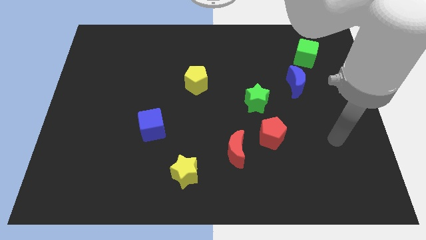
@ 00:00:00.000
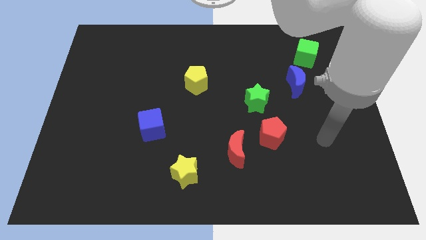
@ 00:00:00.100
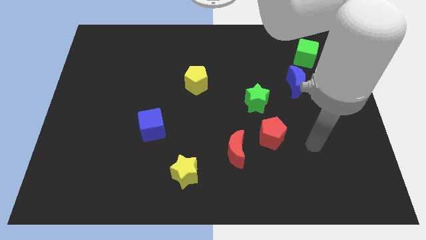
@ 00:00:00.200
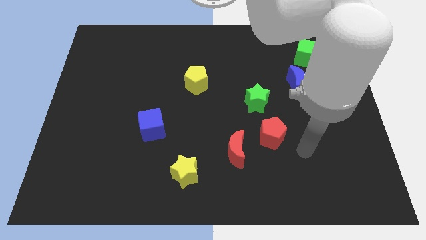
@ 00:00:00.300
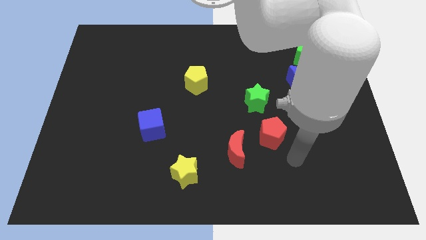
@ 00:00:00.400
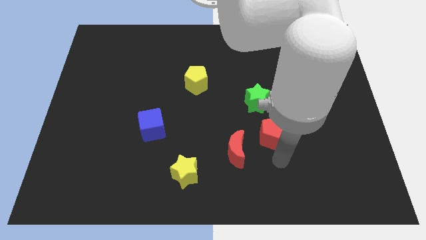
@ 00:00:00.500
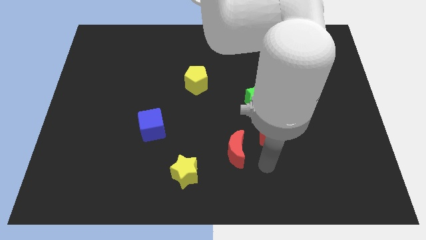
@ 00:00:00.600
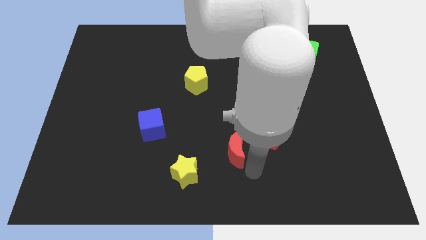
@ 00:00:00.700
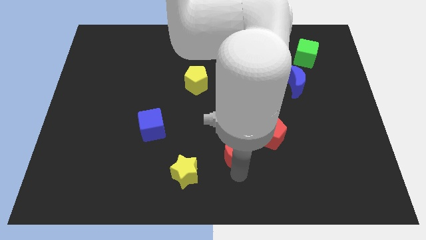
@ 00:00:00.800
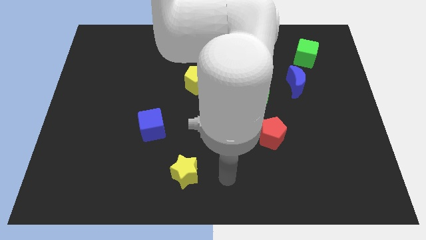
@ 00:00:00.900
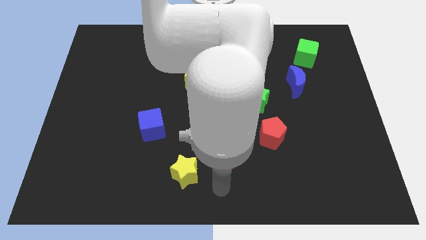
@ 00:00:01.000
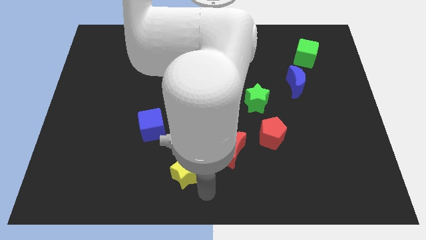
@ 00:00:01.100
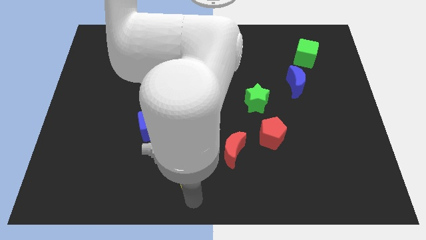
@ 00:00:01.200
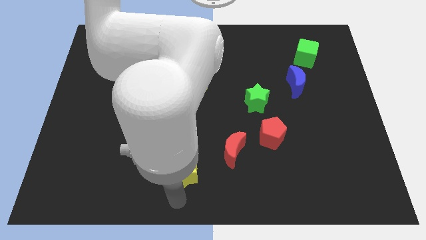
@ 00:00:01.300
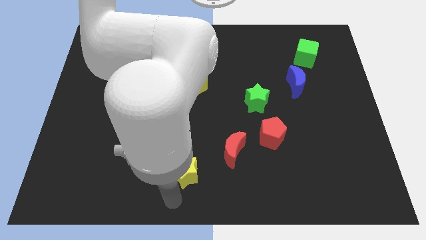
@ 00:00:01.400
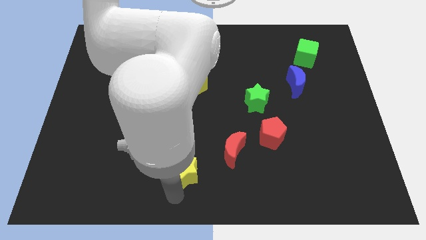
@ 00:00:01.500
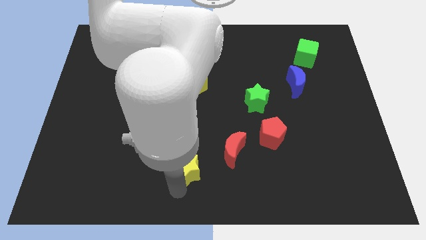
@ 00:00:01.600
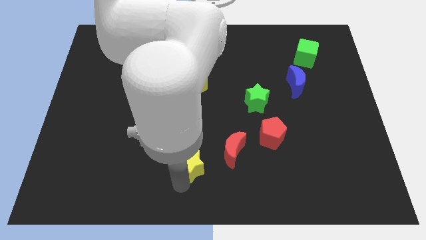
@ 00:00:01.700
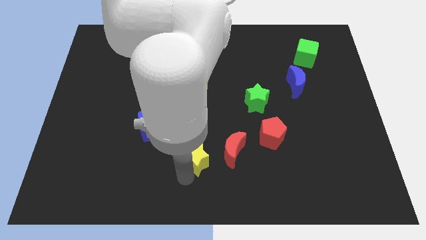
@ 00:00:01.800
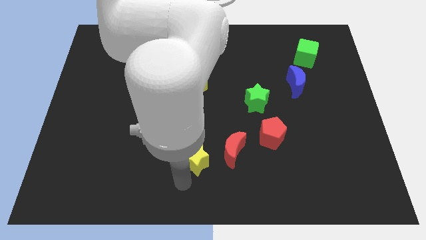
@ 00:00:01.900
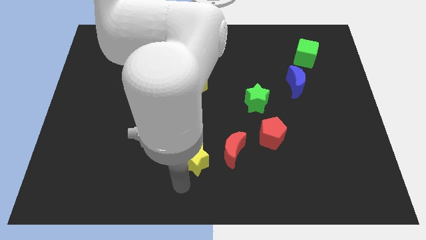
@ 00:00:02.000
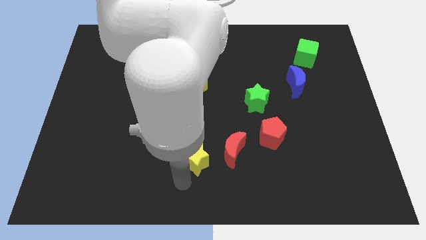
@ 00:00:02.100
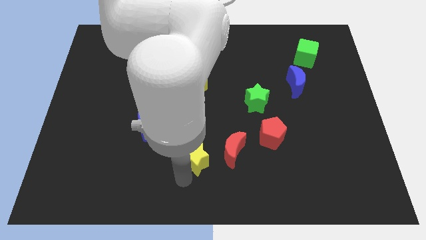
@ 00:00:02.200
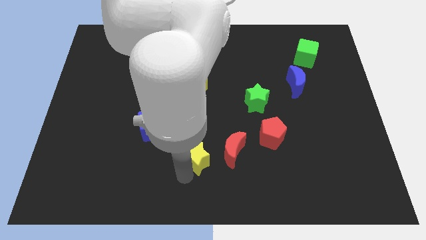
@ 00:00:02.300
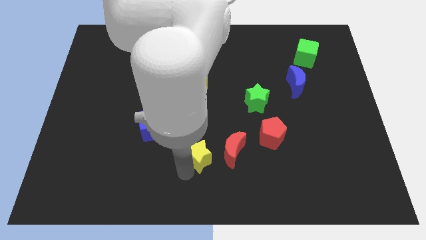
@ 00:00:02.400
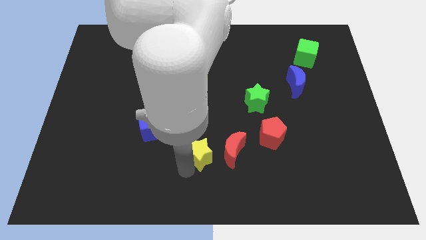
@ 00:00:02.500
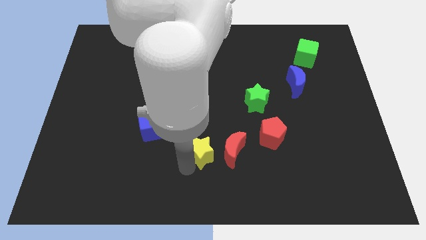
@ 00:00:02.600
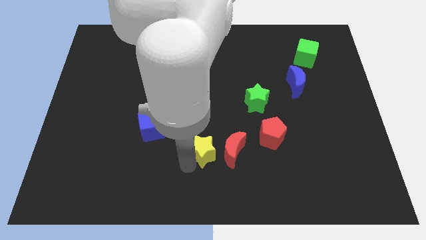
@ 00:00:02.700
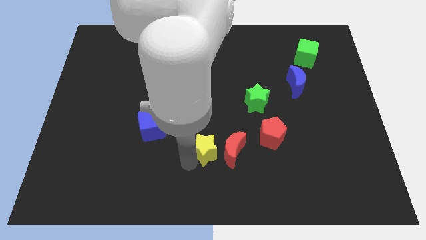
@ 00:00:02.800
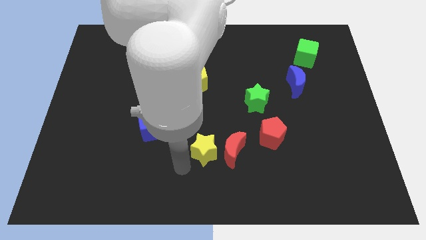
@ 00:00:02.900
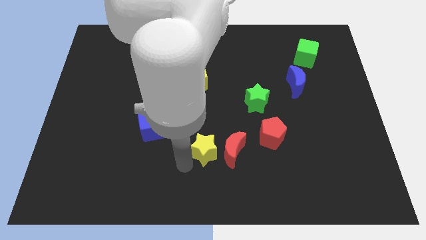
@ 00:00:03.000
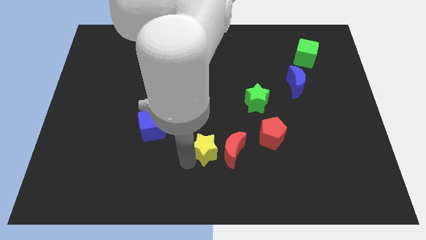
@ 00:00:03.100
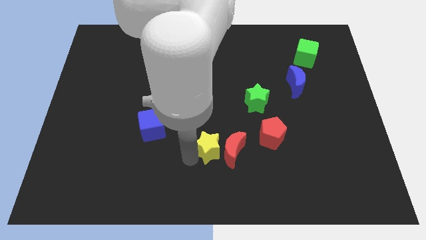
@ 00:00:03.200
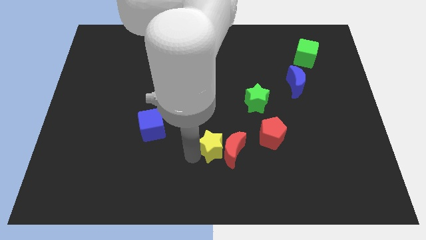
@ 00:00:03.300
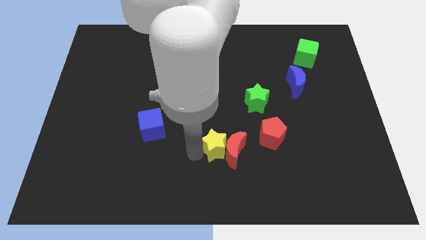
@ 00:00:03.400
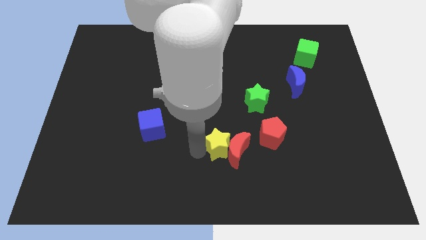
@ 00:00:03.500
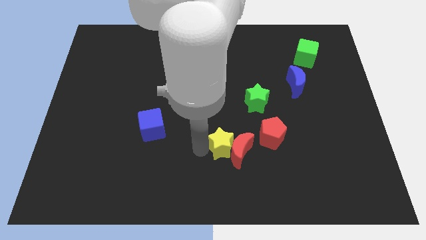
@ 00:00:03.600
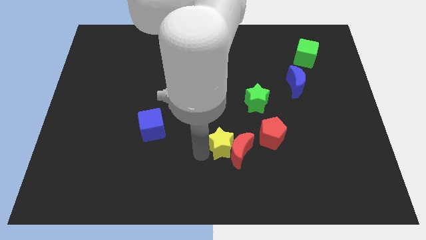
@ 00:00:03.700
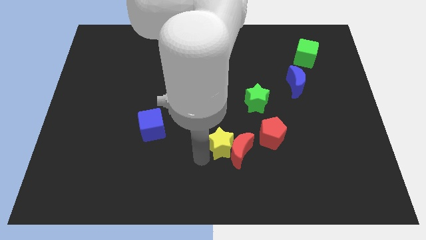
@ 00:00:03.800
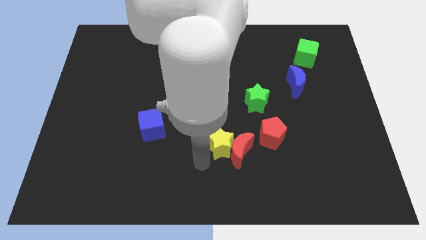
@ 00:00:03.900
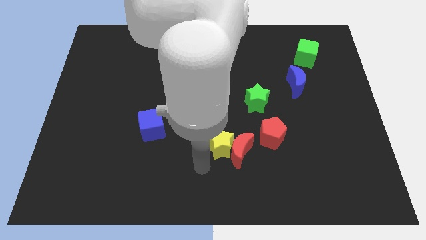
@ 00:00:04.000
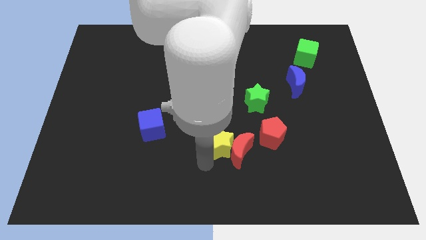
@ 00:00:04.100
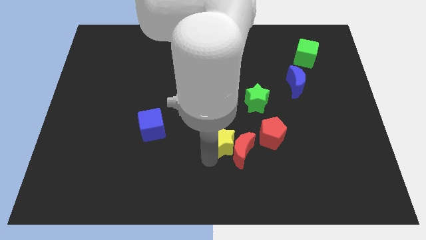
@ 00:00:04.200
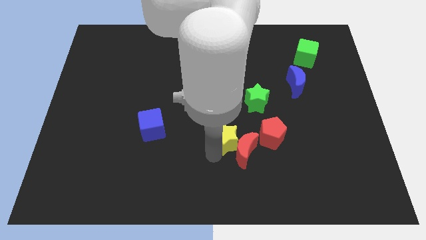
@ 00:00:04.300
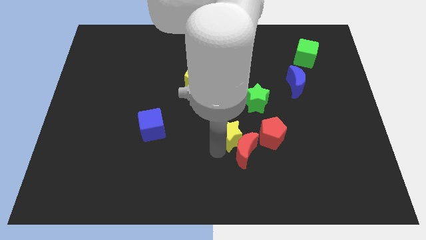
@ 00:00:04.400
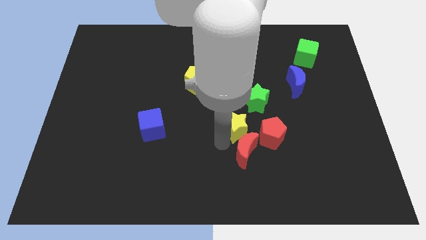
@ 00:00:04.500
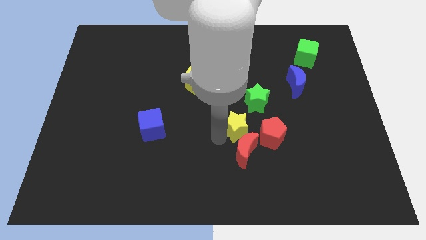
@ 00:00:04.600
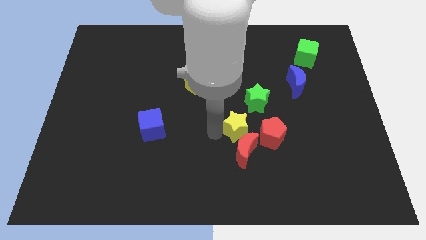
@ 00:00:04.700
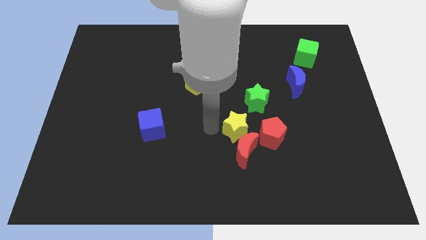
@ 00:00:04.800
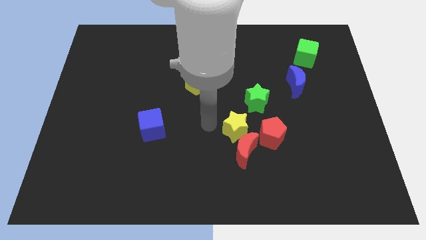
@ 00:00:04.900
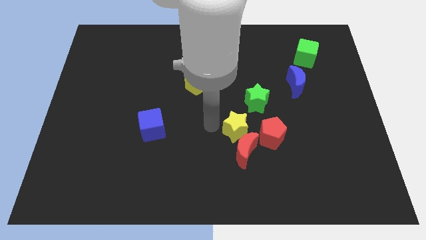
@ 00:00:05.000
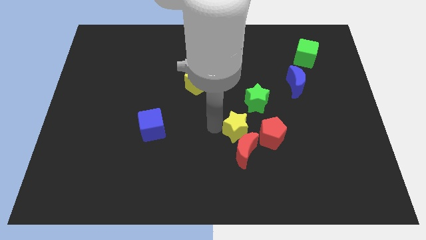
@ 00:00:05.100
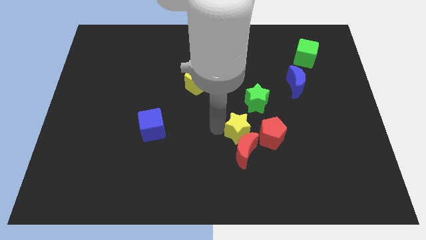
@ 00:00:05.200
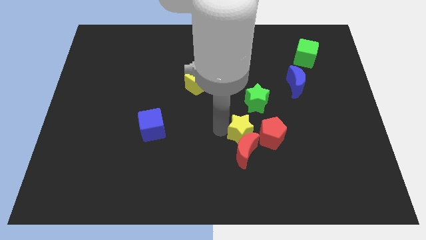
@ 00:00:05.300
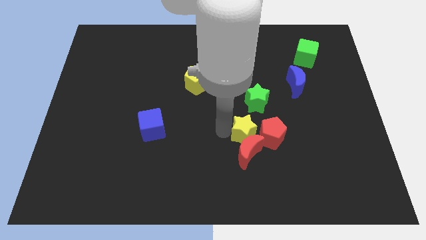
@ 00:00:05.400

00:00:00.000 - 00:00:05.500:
move the yellow star next to the red pentagon

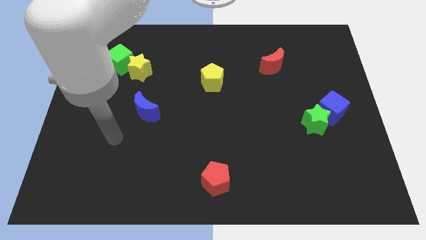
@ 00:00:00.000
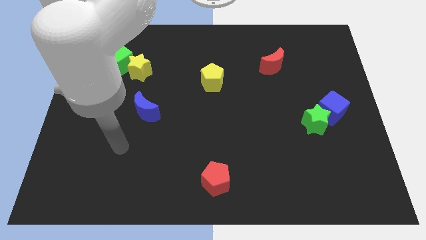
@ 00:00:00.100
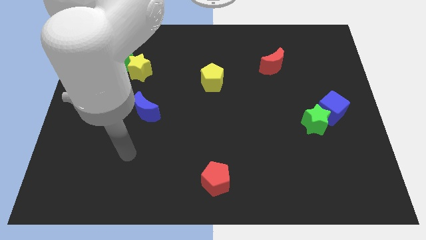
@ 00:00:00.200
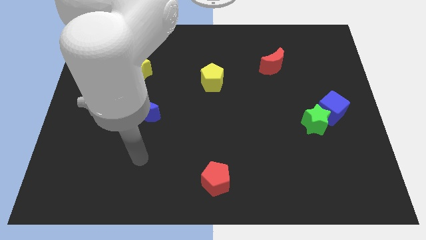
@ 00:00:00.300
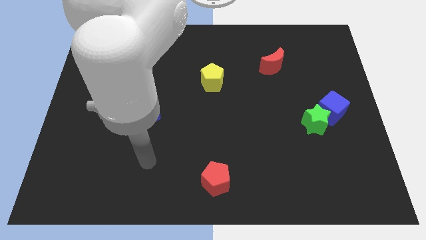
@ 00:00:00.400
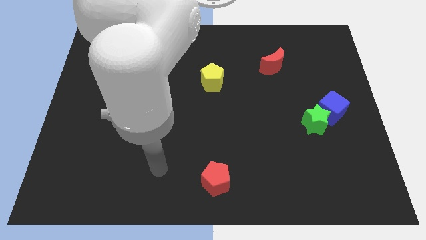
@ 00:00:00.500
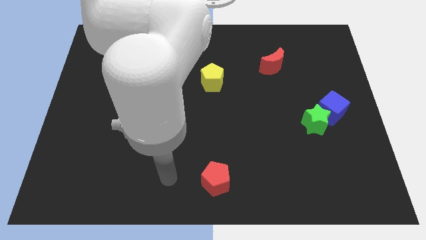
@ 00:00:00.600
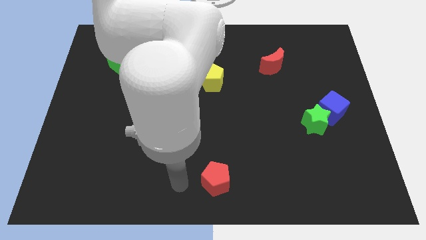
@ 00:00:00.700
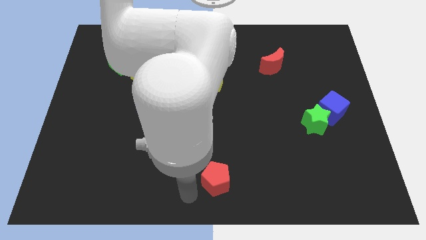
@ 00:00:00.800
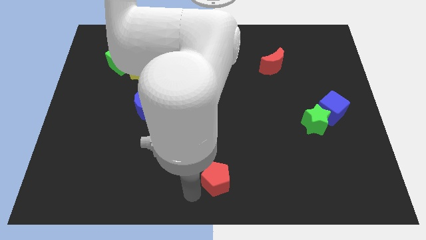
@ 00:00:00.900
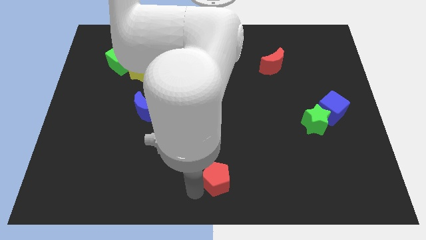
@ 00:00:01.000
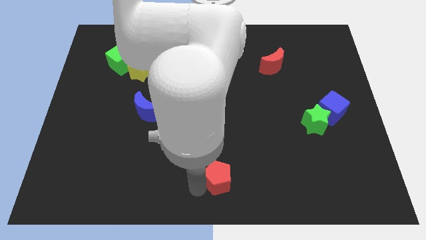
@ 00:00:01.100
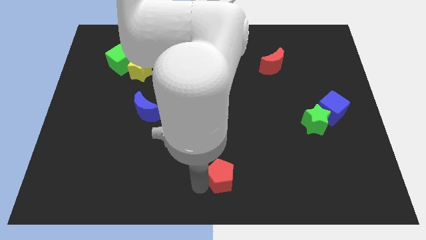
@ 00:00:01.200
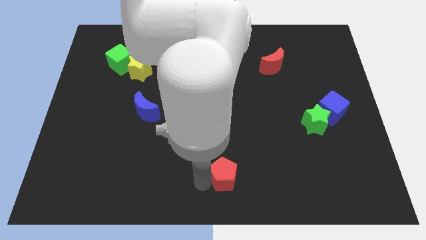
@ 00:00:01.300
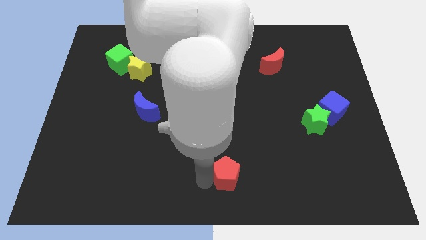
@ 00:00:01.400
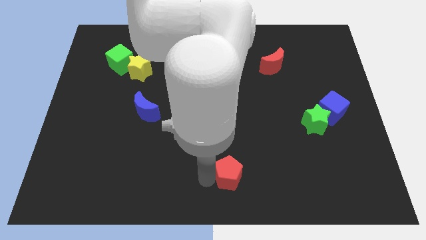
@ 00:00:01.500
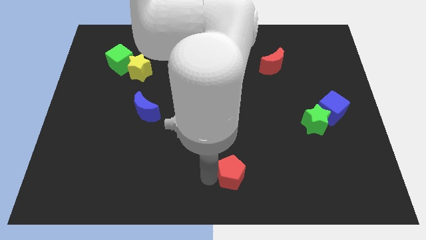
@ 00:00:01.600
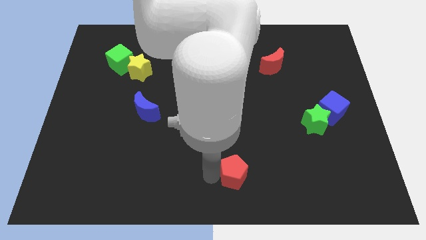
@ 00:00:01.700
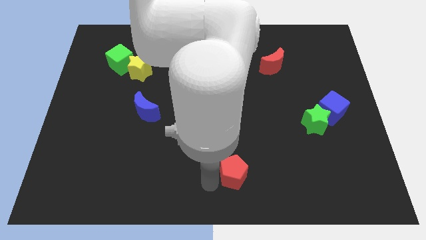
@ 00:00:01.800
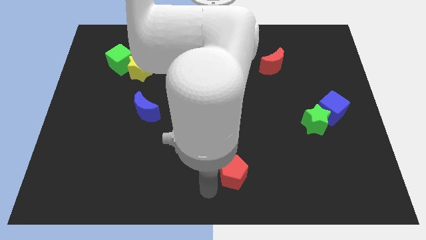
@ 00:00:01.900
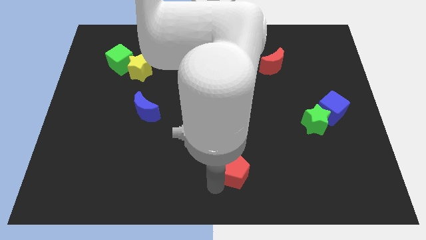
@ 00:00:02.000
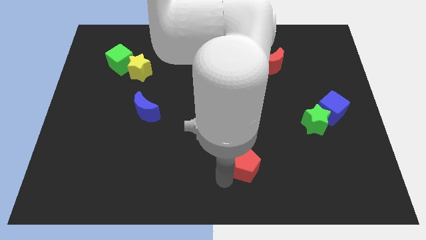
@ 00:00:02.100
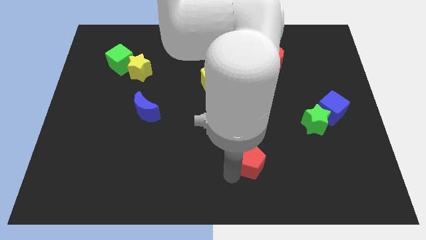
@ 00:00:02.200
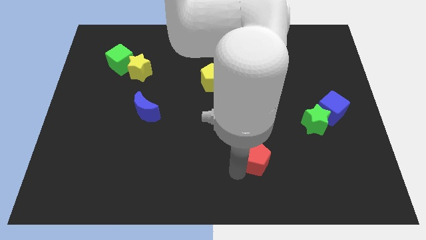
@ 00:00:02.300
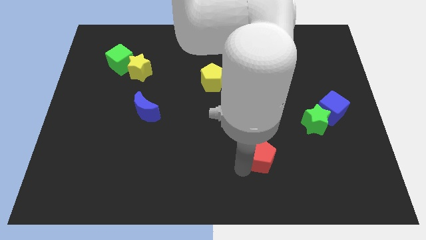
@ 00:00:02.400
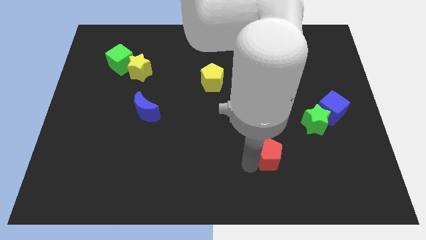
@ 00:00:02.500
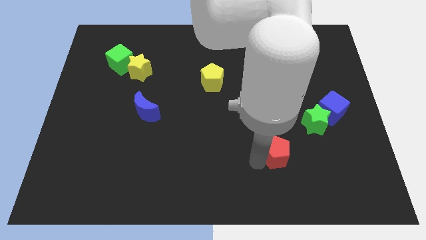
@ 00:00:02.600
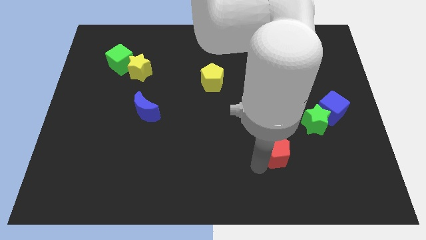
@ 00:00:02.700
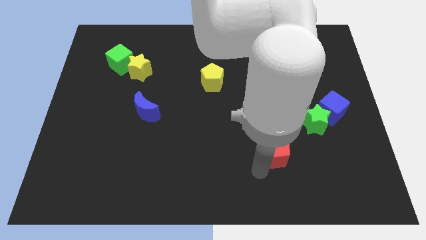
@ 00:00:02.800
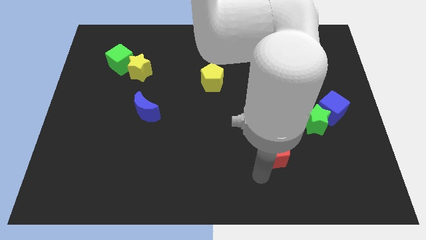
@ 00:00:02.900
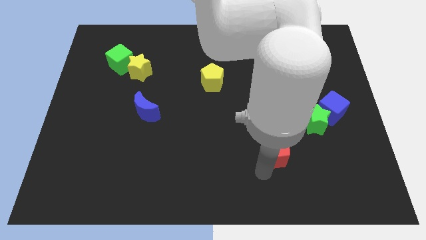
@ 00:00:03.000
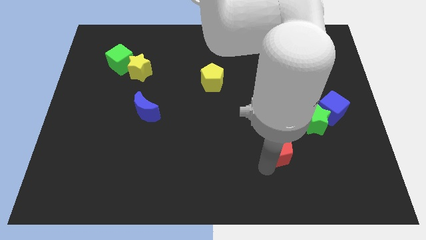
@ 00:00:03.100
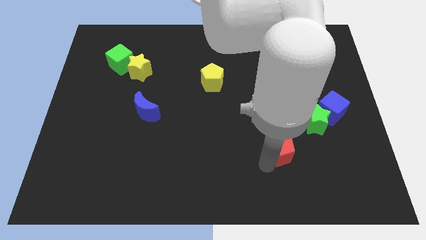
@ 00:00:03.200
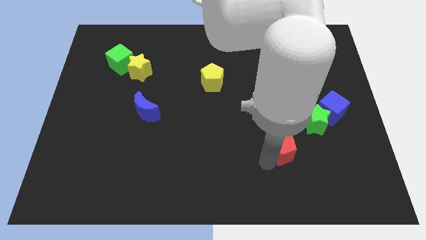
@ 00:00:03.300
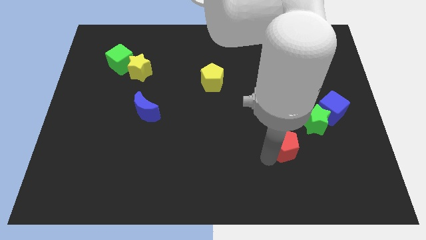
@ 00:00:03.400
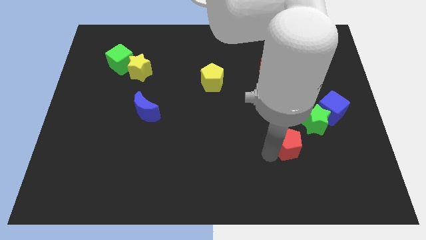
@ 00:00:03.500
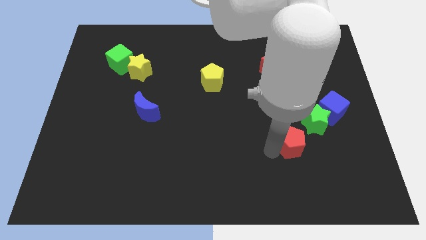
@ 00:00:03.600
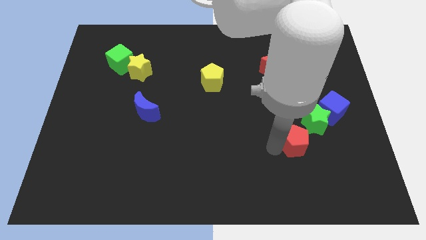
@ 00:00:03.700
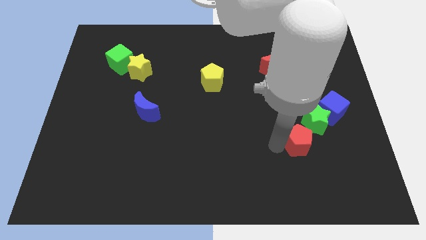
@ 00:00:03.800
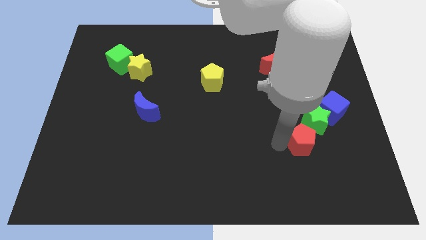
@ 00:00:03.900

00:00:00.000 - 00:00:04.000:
slide the red pentagon to the green star
